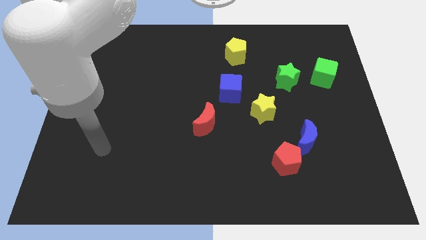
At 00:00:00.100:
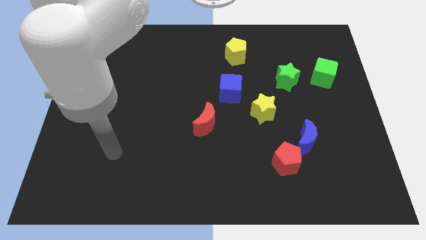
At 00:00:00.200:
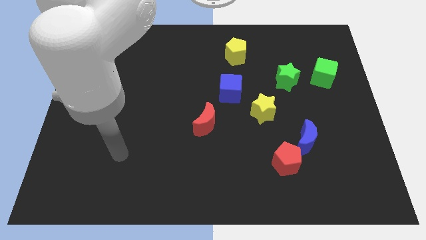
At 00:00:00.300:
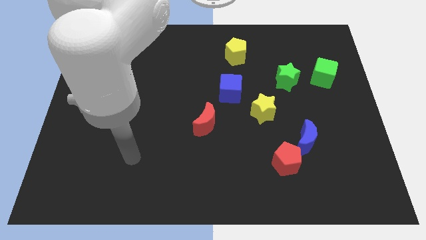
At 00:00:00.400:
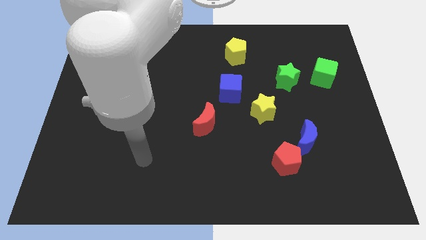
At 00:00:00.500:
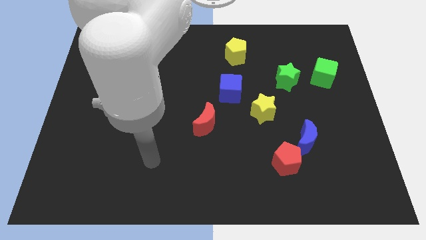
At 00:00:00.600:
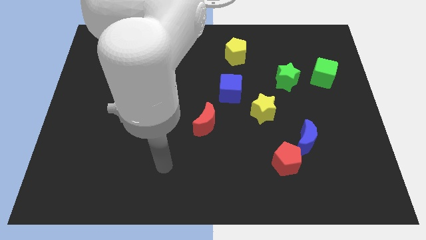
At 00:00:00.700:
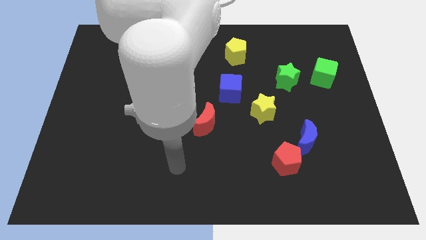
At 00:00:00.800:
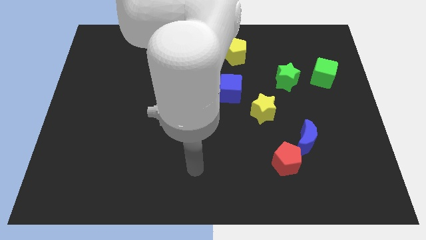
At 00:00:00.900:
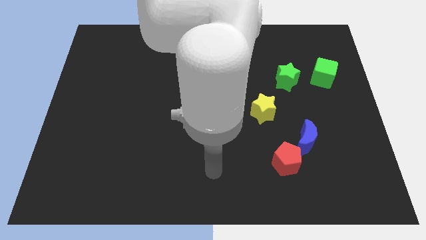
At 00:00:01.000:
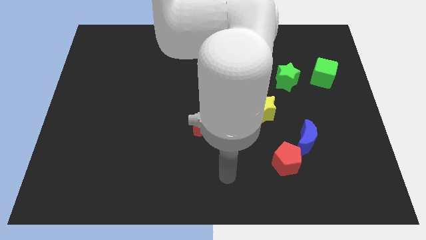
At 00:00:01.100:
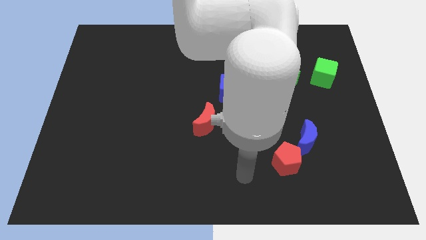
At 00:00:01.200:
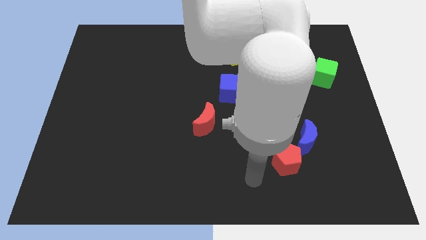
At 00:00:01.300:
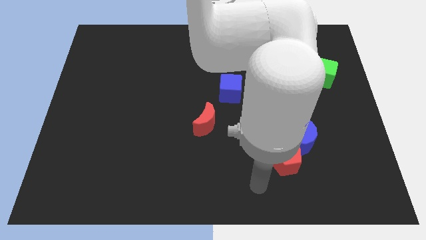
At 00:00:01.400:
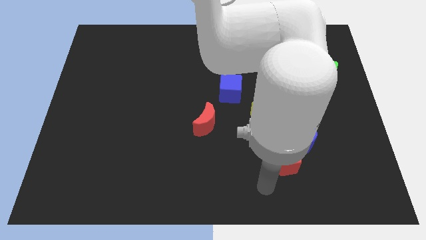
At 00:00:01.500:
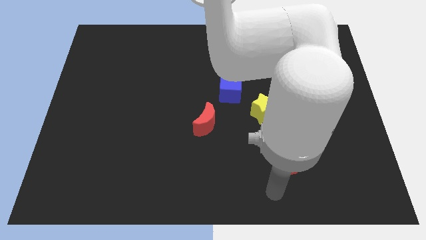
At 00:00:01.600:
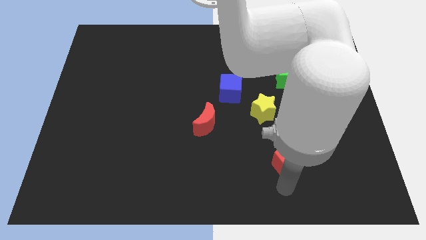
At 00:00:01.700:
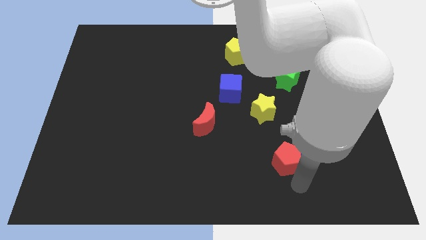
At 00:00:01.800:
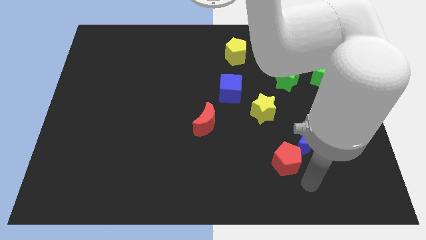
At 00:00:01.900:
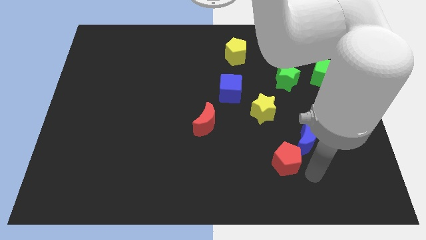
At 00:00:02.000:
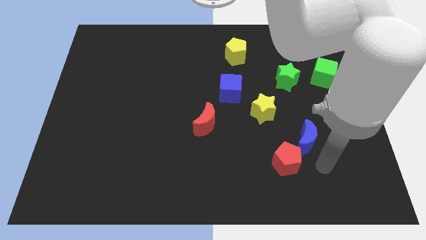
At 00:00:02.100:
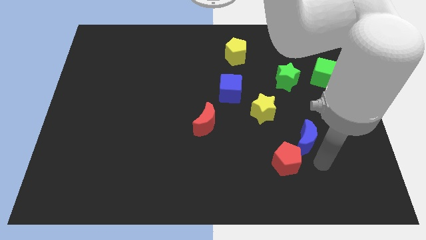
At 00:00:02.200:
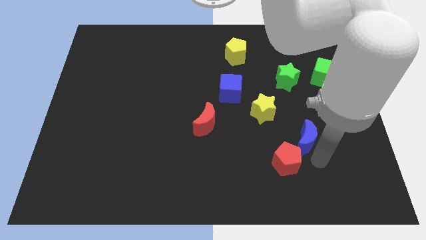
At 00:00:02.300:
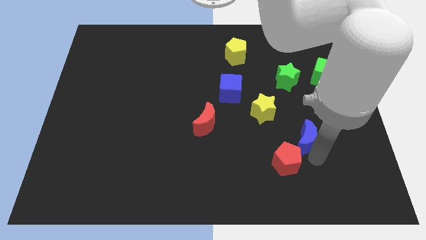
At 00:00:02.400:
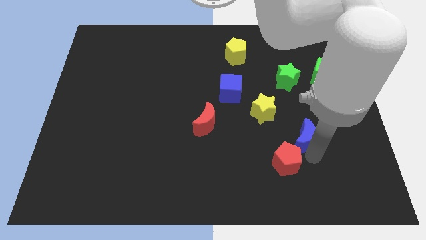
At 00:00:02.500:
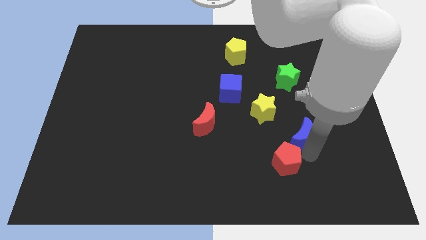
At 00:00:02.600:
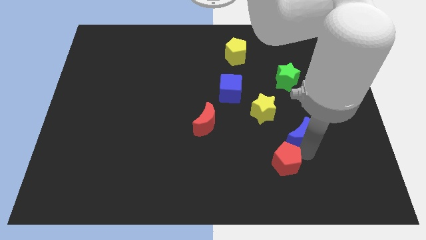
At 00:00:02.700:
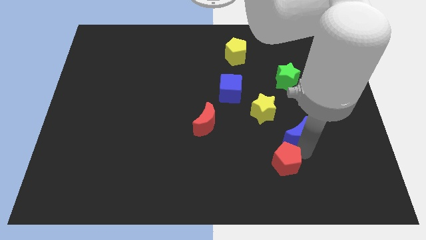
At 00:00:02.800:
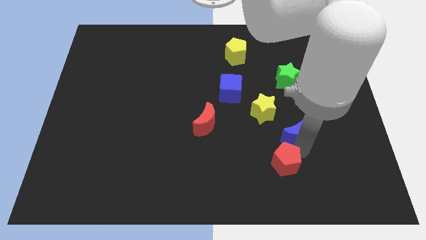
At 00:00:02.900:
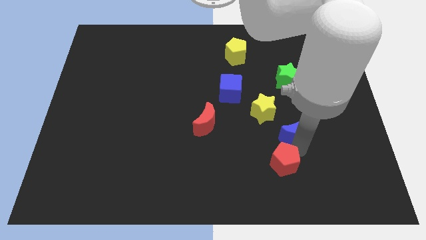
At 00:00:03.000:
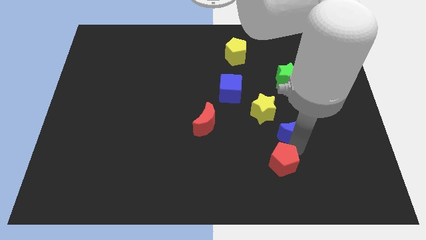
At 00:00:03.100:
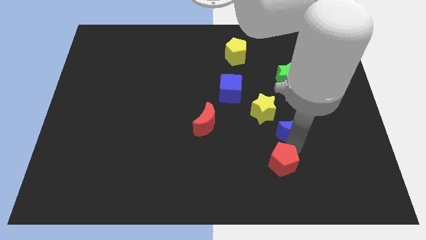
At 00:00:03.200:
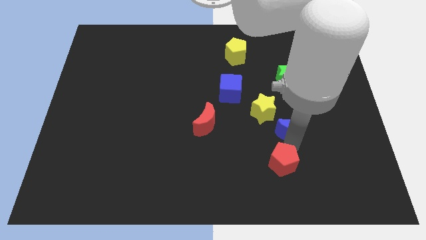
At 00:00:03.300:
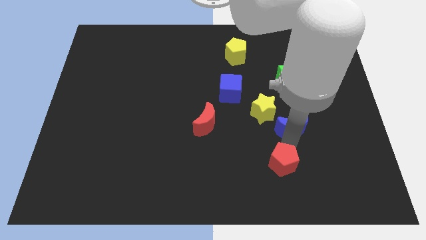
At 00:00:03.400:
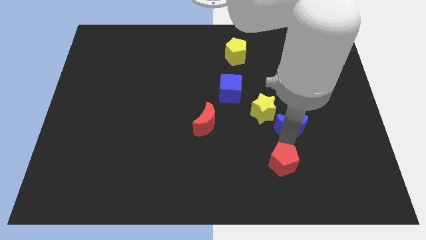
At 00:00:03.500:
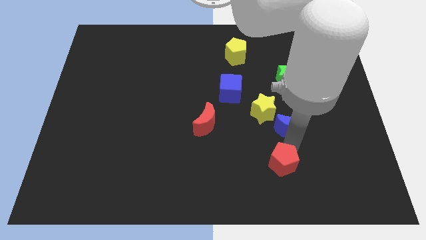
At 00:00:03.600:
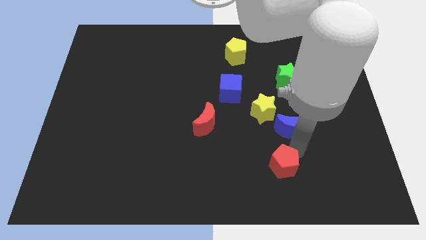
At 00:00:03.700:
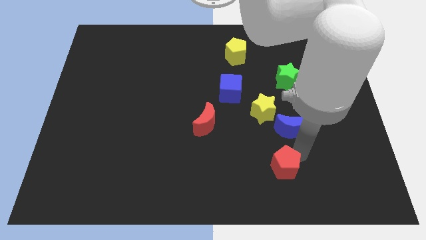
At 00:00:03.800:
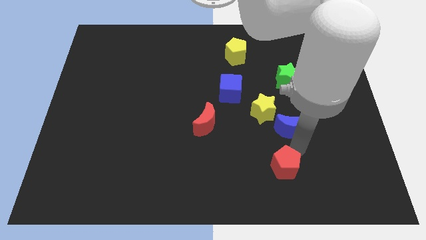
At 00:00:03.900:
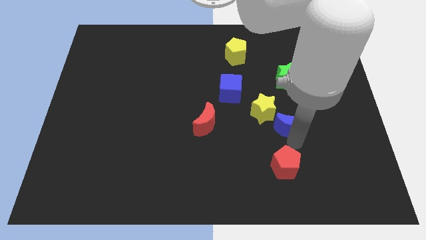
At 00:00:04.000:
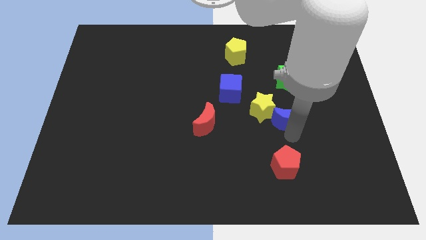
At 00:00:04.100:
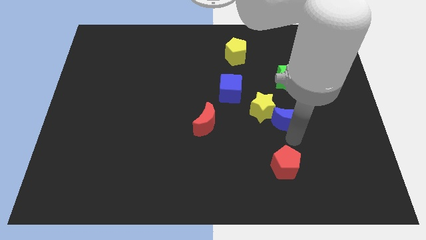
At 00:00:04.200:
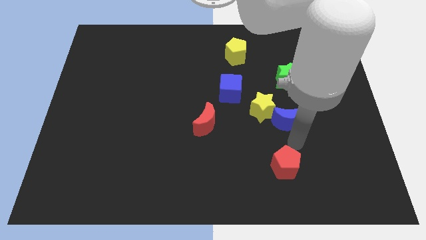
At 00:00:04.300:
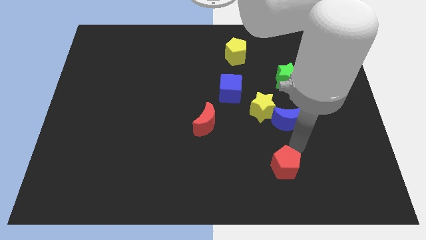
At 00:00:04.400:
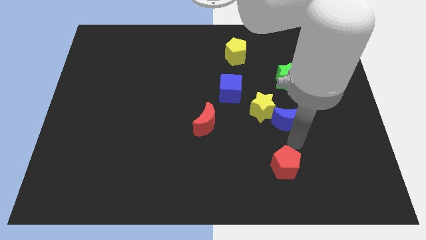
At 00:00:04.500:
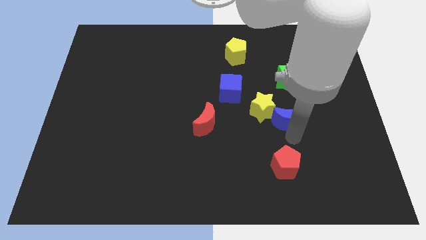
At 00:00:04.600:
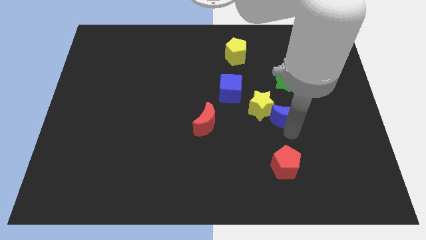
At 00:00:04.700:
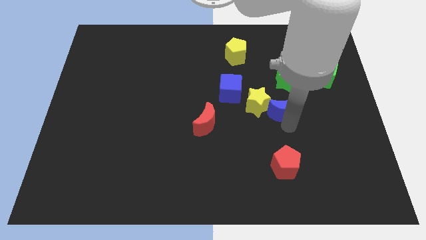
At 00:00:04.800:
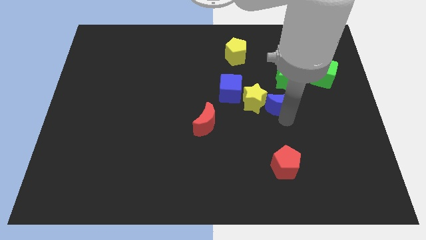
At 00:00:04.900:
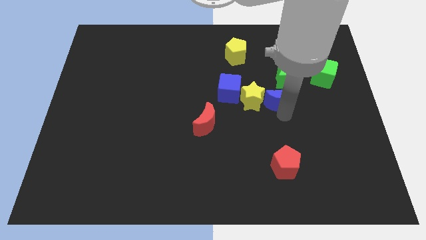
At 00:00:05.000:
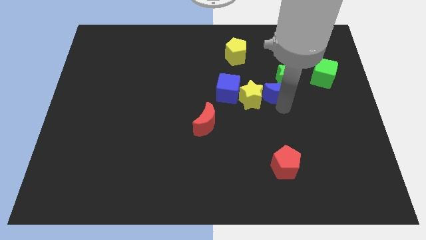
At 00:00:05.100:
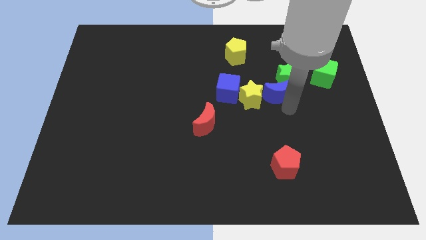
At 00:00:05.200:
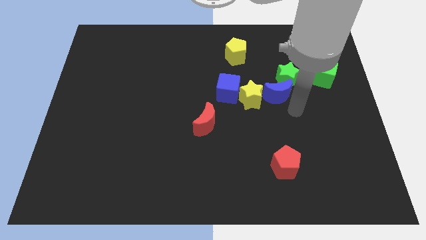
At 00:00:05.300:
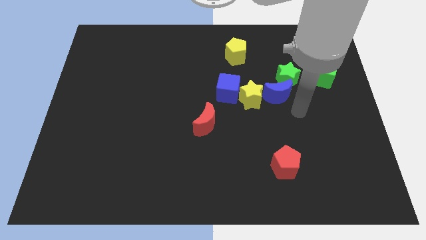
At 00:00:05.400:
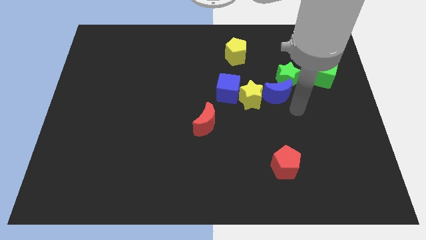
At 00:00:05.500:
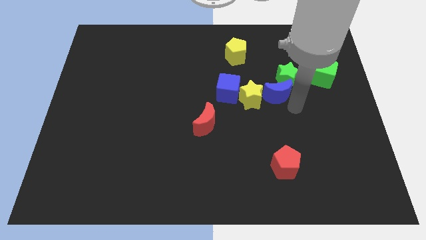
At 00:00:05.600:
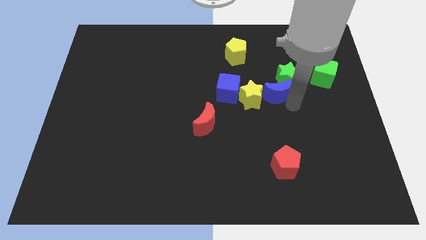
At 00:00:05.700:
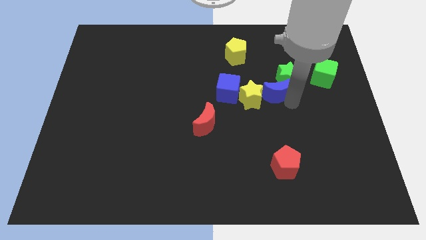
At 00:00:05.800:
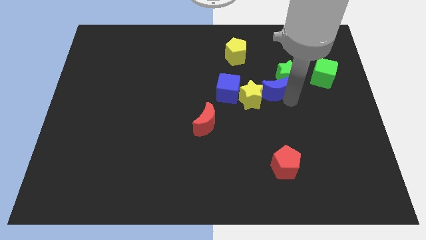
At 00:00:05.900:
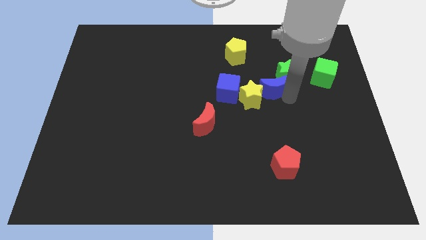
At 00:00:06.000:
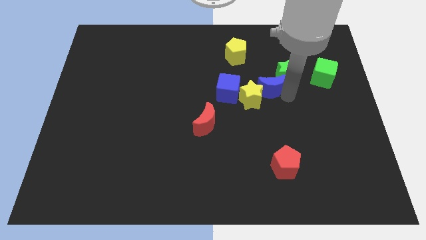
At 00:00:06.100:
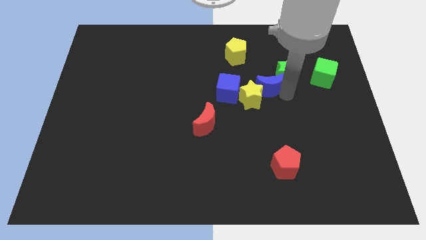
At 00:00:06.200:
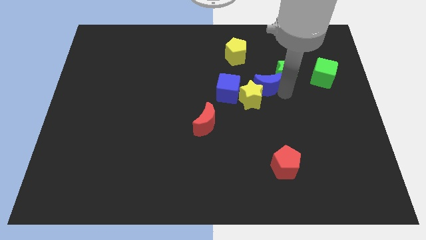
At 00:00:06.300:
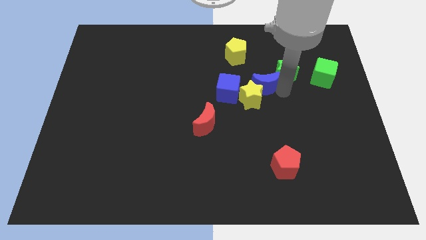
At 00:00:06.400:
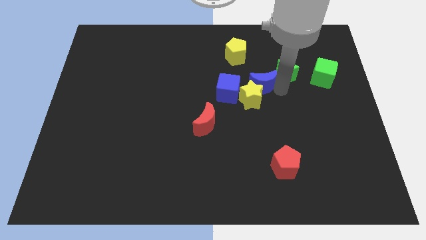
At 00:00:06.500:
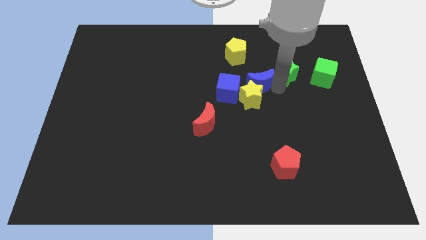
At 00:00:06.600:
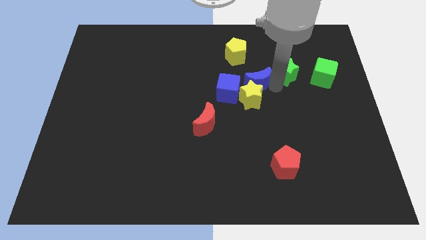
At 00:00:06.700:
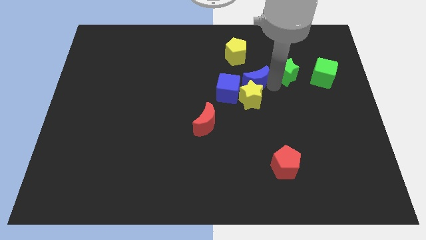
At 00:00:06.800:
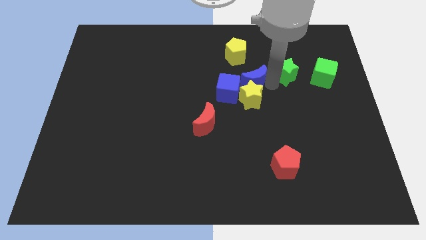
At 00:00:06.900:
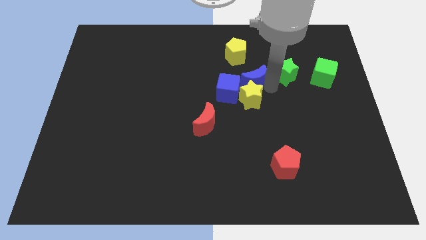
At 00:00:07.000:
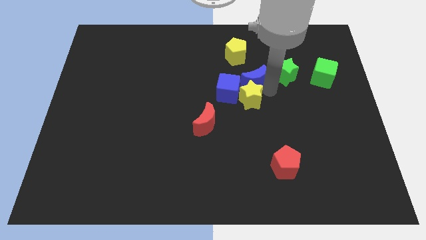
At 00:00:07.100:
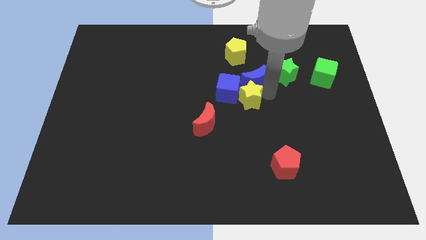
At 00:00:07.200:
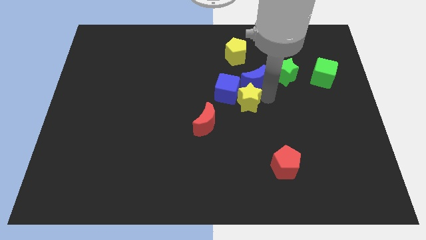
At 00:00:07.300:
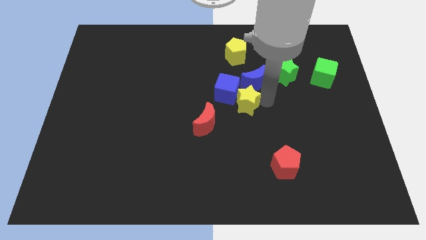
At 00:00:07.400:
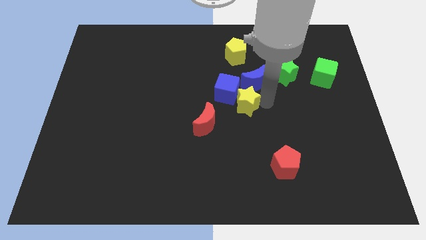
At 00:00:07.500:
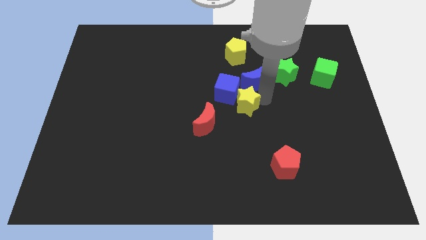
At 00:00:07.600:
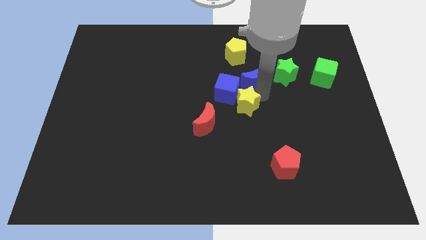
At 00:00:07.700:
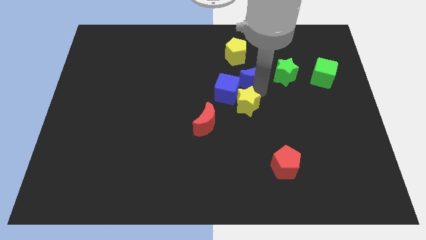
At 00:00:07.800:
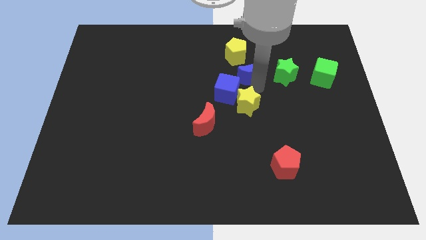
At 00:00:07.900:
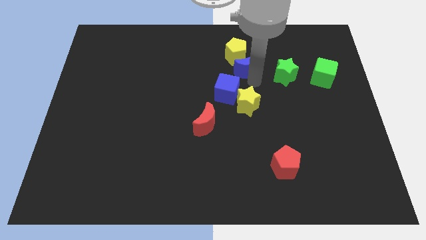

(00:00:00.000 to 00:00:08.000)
move the blue moon close to the yellow pentagon
